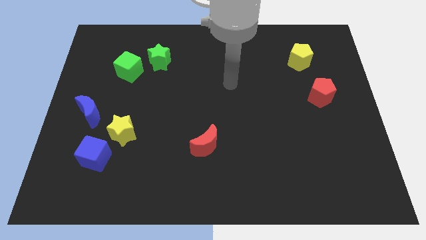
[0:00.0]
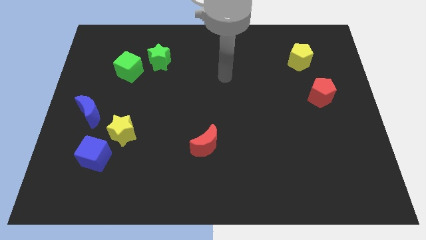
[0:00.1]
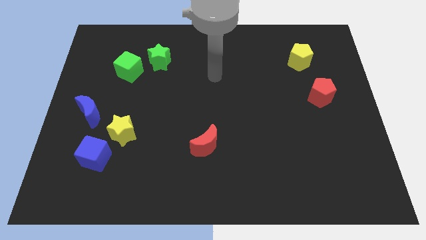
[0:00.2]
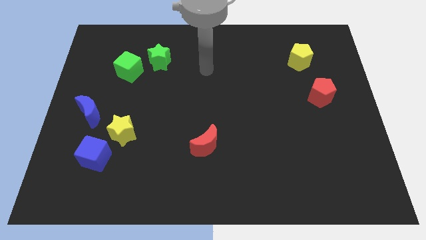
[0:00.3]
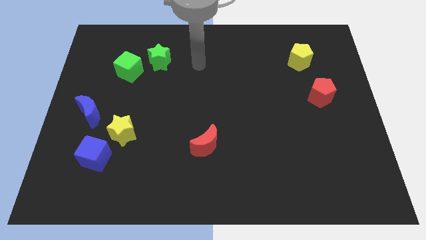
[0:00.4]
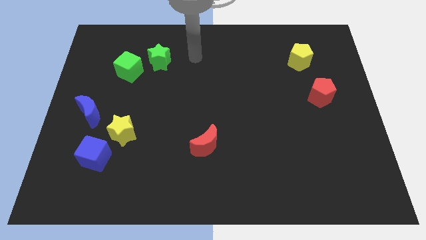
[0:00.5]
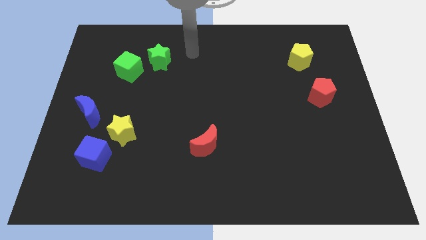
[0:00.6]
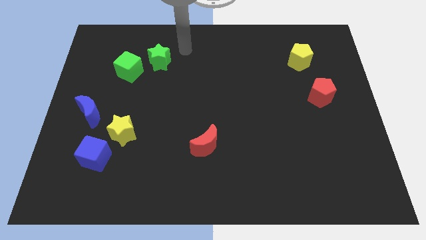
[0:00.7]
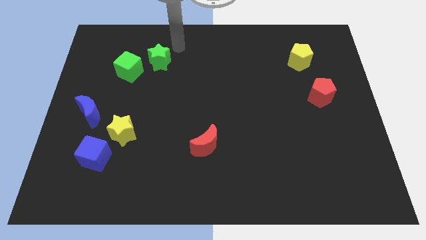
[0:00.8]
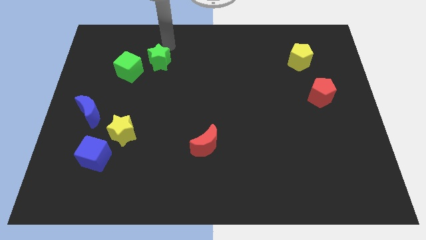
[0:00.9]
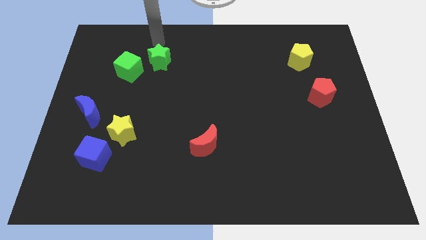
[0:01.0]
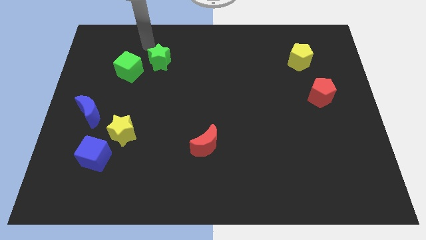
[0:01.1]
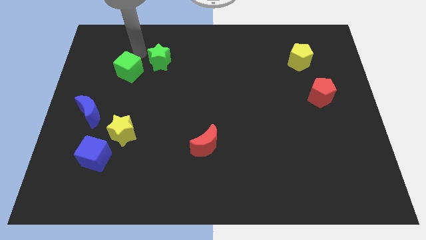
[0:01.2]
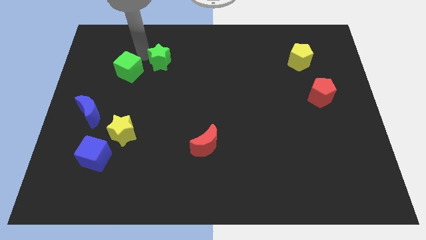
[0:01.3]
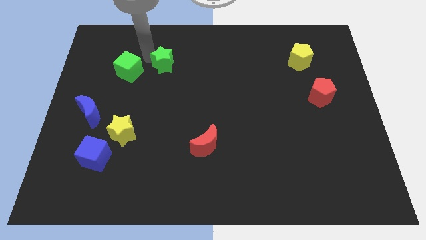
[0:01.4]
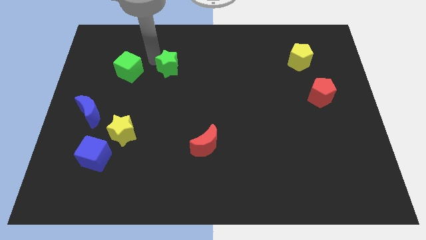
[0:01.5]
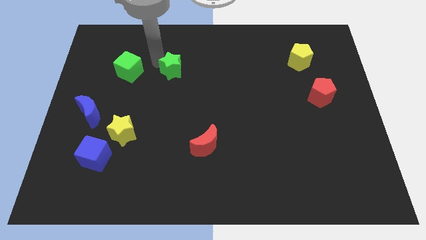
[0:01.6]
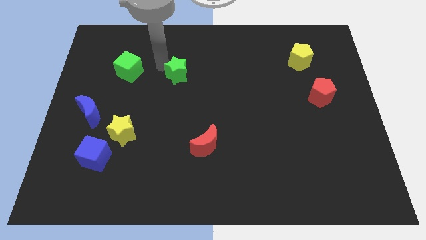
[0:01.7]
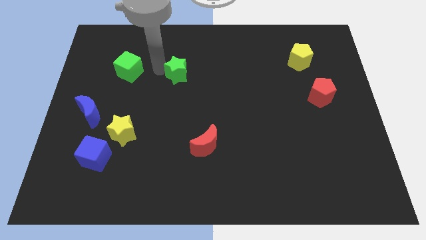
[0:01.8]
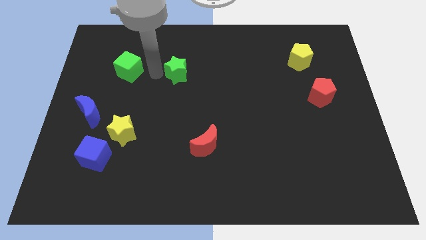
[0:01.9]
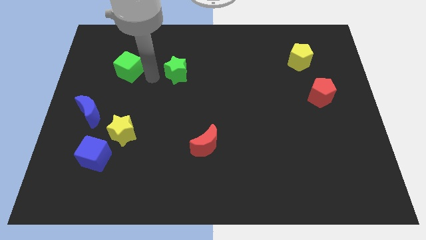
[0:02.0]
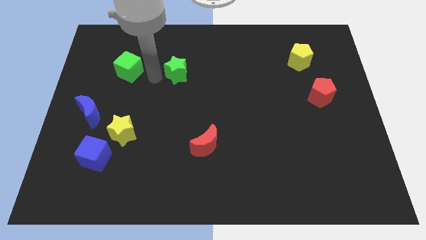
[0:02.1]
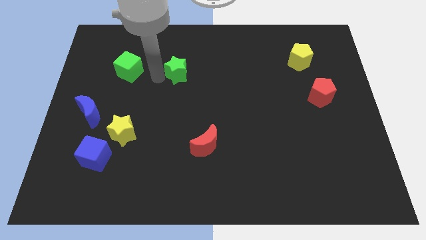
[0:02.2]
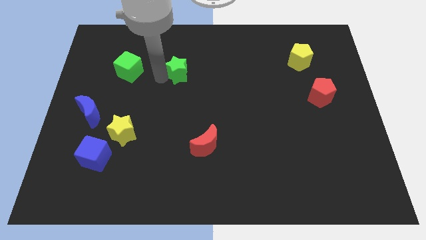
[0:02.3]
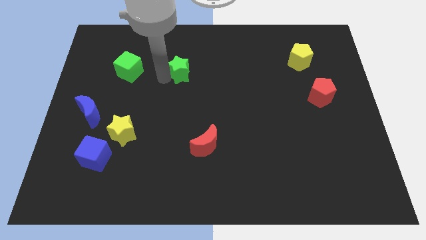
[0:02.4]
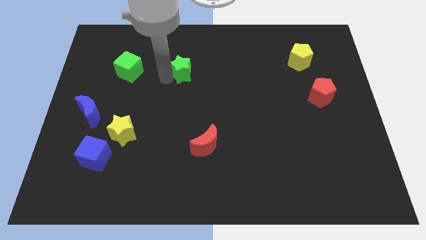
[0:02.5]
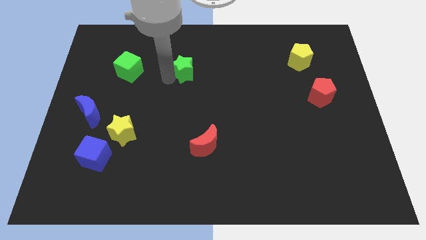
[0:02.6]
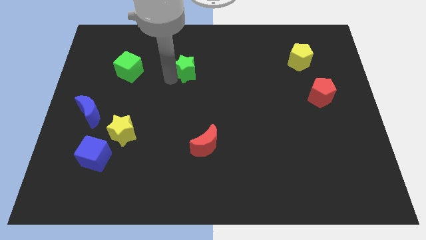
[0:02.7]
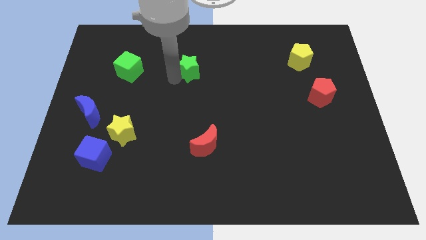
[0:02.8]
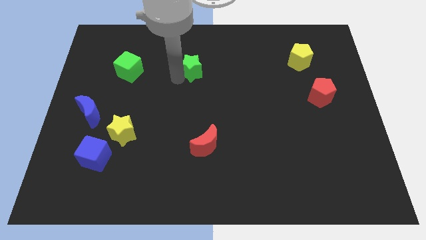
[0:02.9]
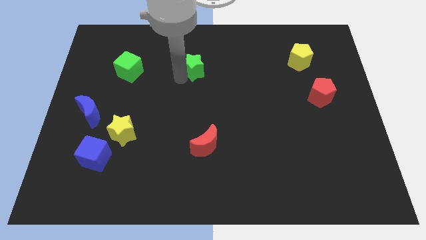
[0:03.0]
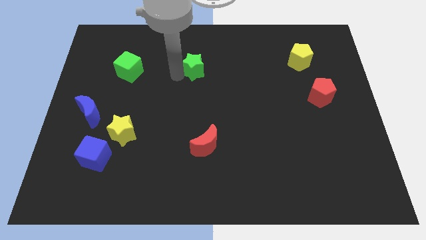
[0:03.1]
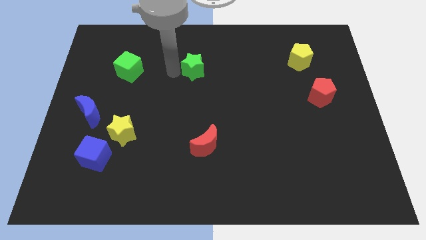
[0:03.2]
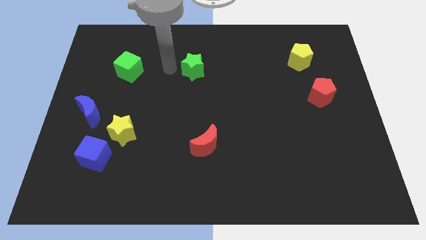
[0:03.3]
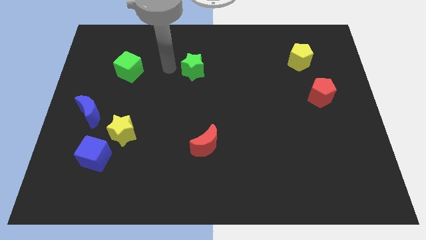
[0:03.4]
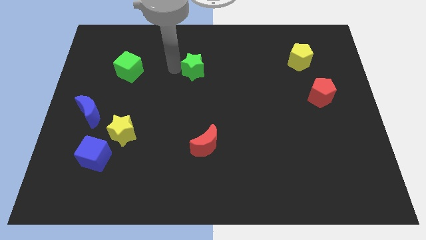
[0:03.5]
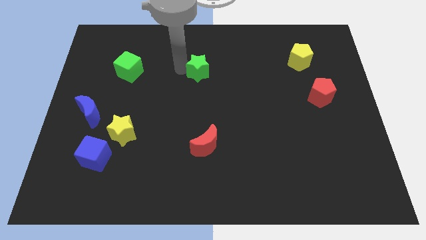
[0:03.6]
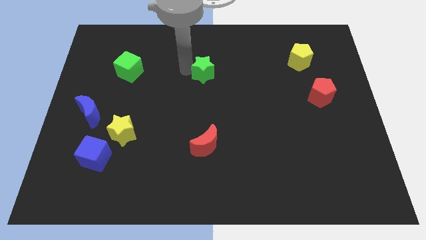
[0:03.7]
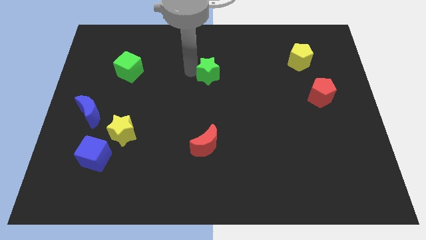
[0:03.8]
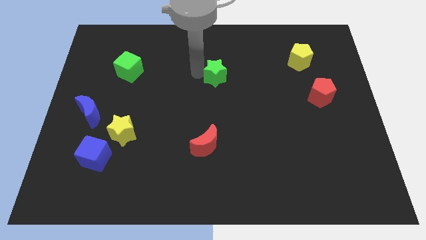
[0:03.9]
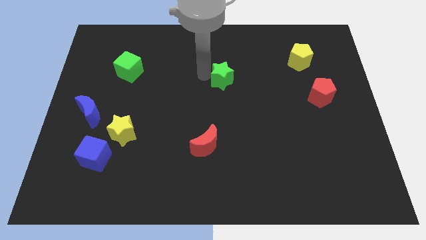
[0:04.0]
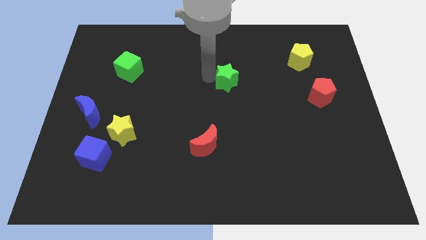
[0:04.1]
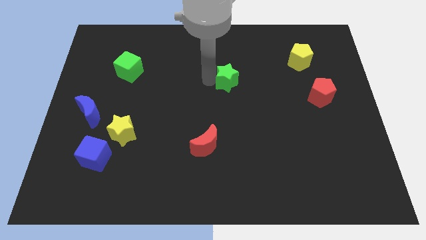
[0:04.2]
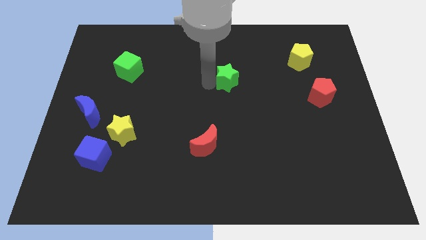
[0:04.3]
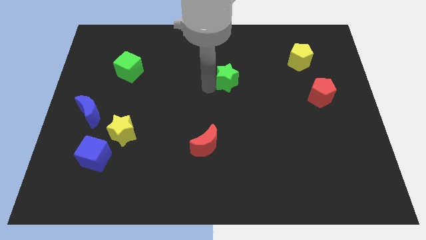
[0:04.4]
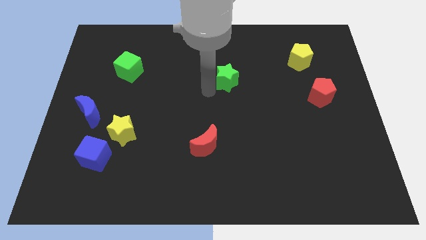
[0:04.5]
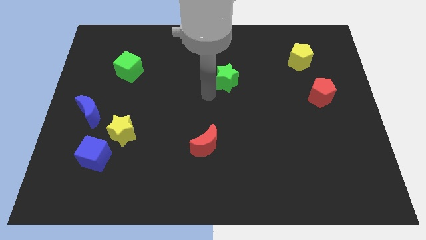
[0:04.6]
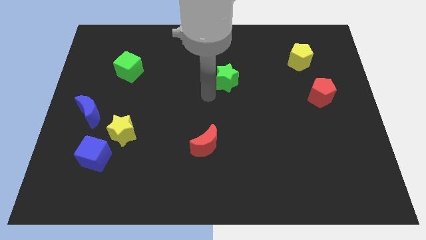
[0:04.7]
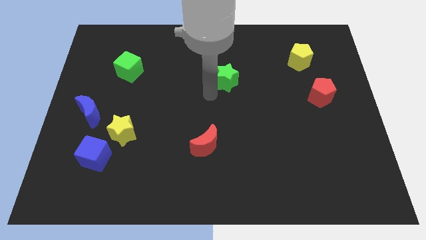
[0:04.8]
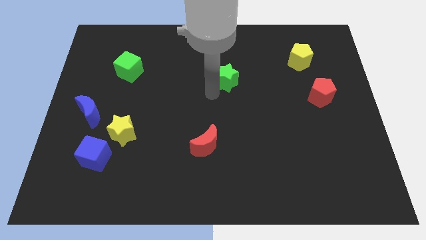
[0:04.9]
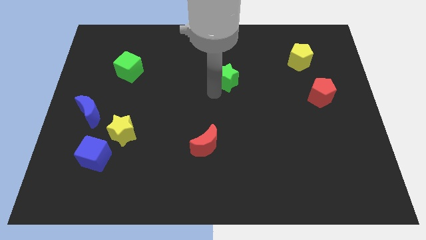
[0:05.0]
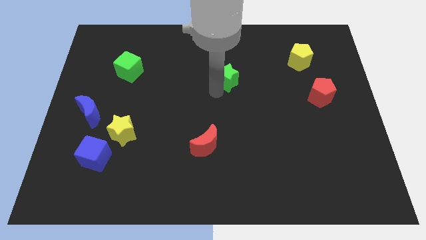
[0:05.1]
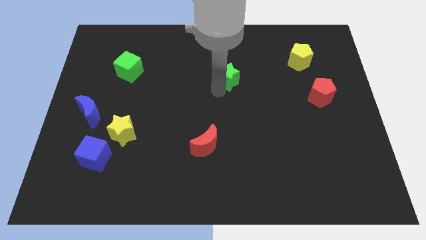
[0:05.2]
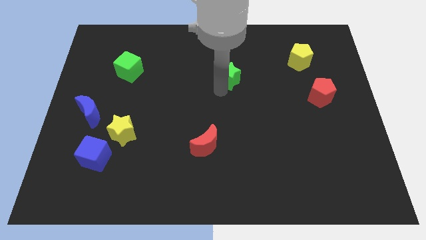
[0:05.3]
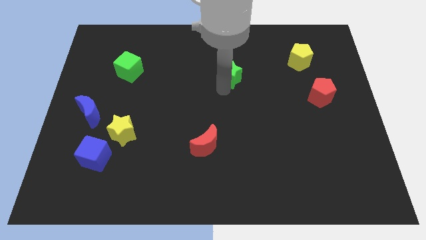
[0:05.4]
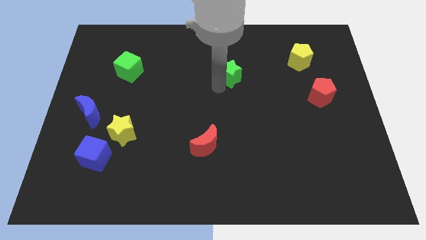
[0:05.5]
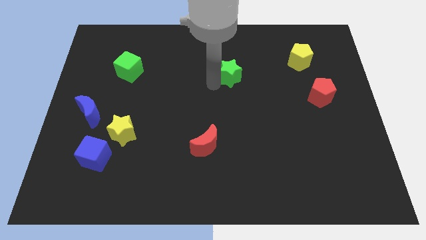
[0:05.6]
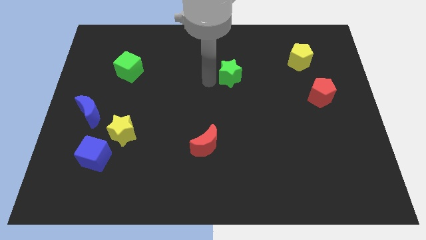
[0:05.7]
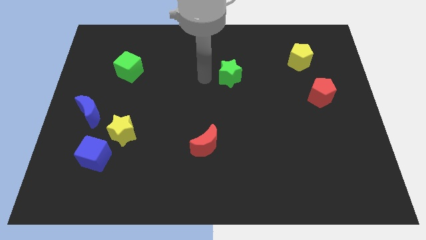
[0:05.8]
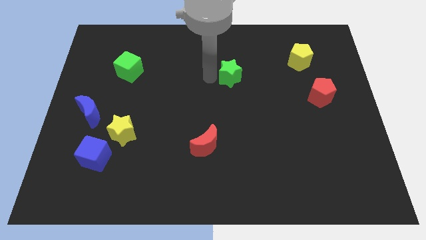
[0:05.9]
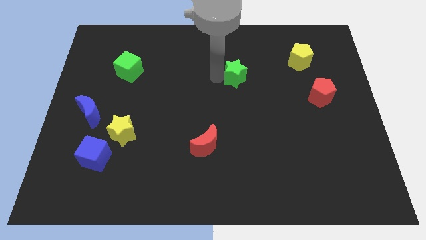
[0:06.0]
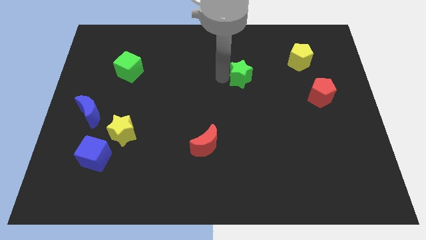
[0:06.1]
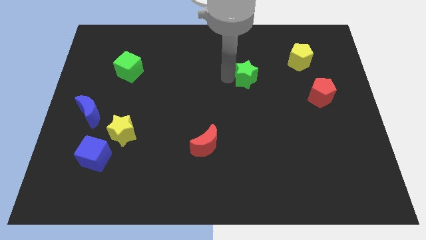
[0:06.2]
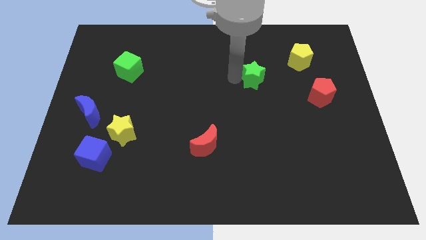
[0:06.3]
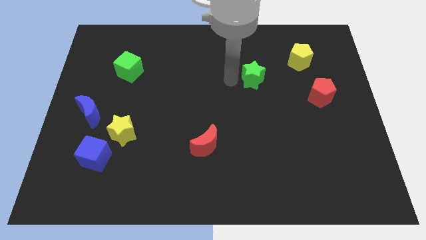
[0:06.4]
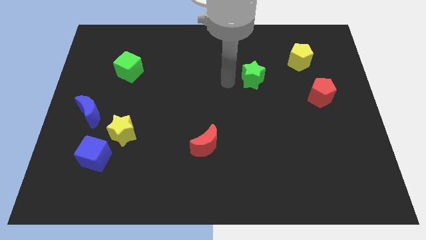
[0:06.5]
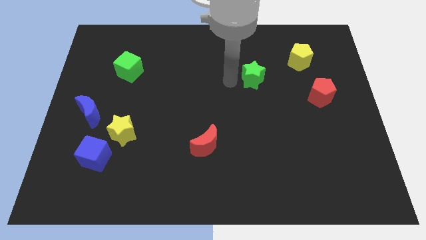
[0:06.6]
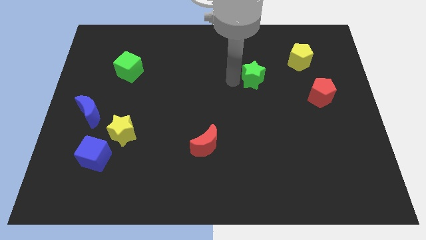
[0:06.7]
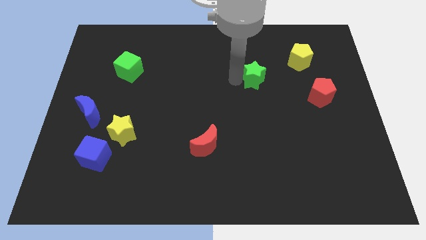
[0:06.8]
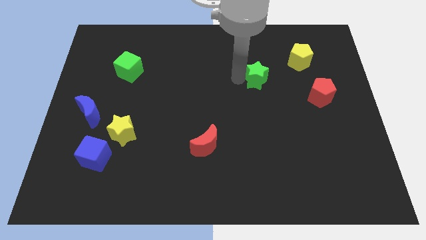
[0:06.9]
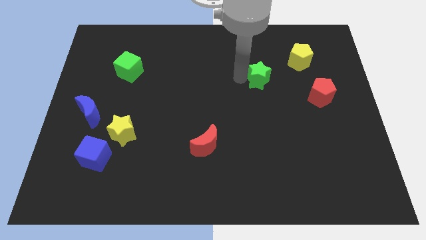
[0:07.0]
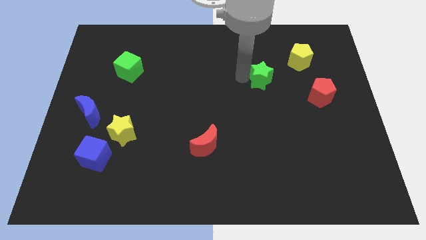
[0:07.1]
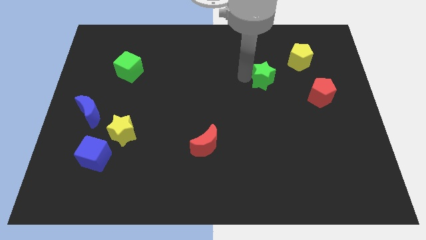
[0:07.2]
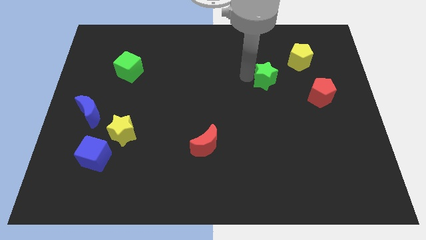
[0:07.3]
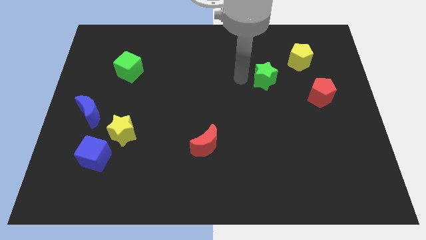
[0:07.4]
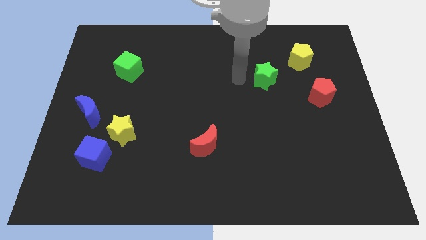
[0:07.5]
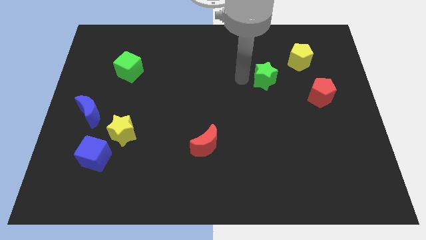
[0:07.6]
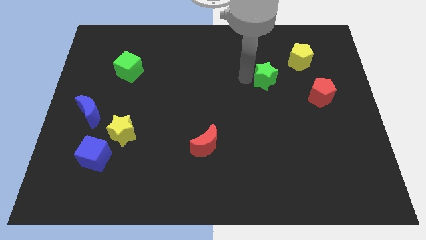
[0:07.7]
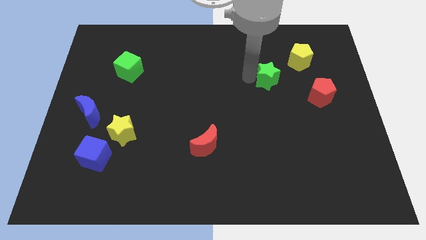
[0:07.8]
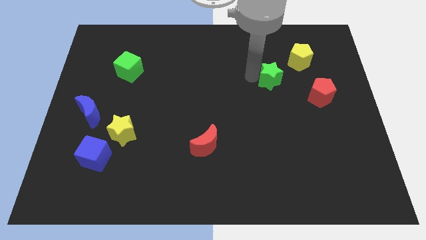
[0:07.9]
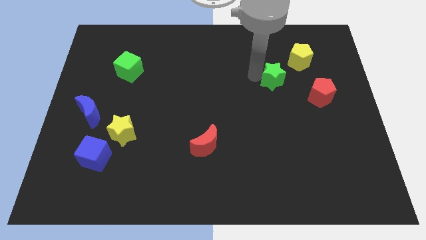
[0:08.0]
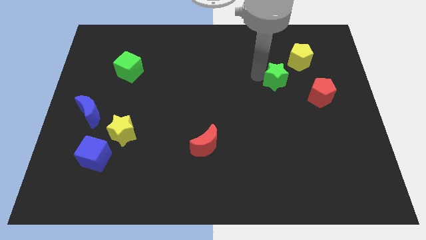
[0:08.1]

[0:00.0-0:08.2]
put the green star to the top left of the red pentagon
